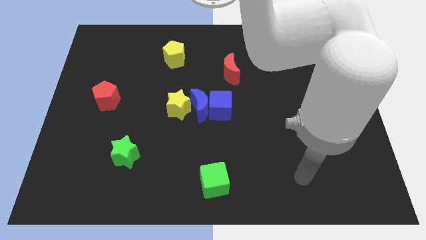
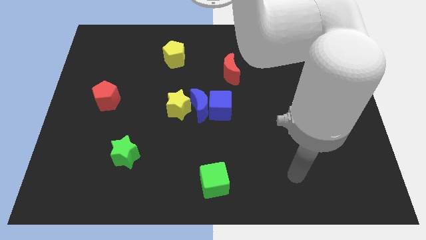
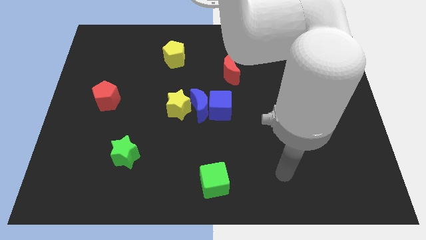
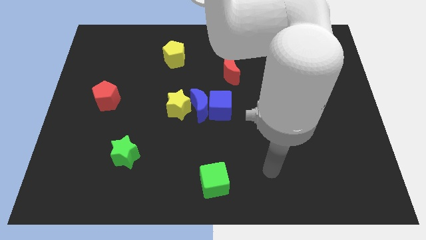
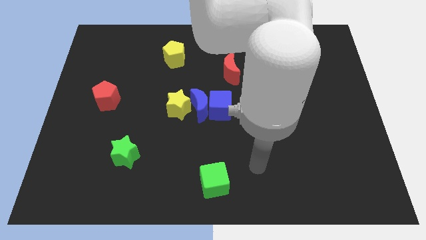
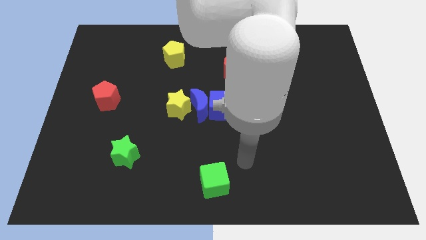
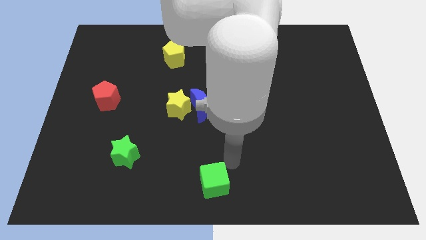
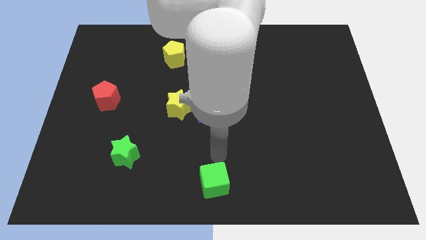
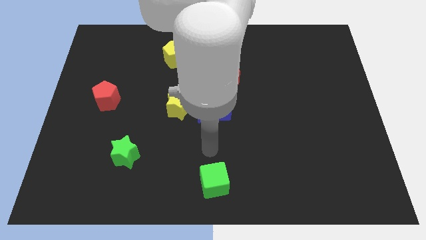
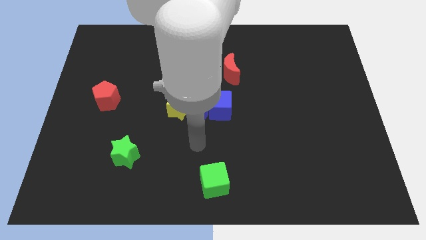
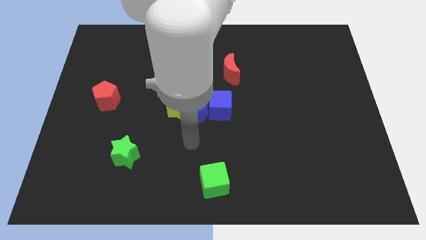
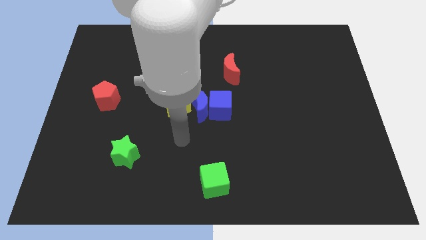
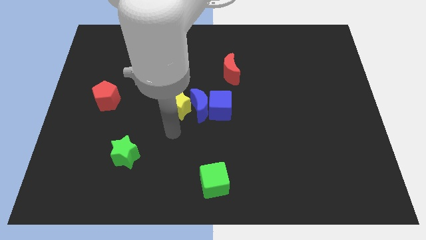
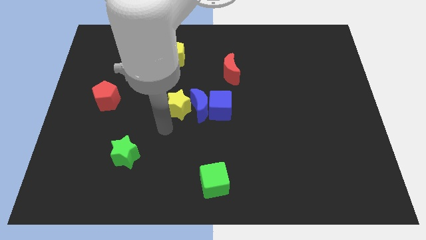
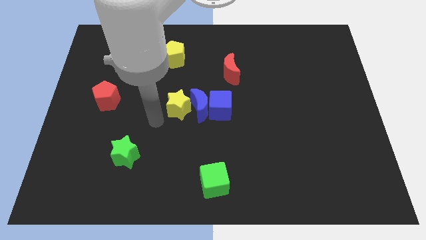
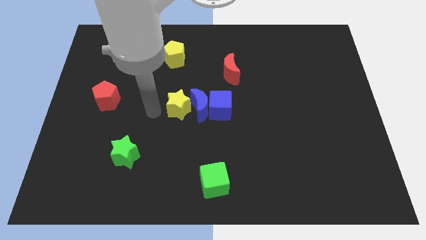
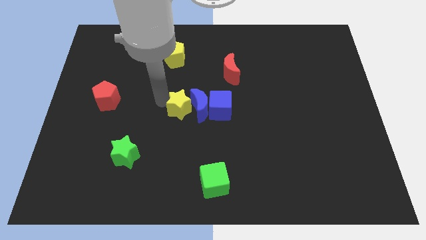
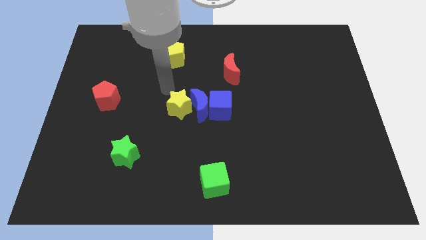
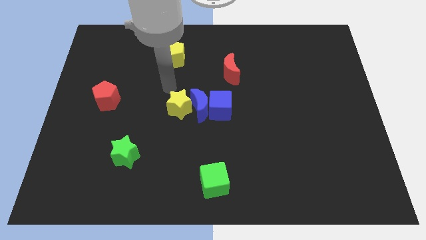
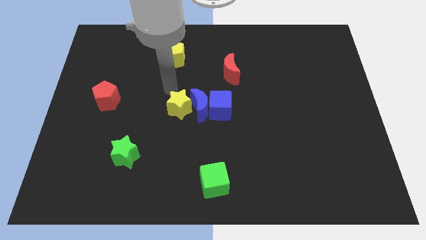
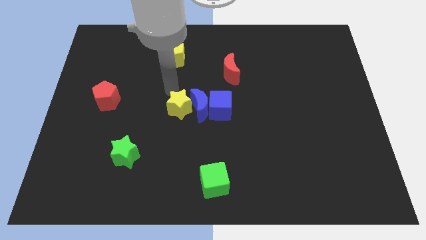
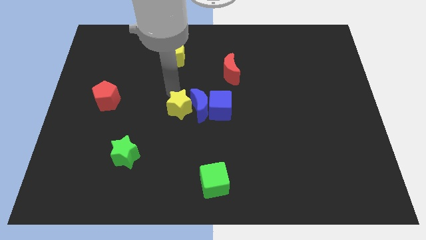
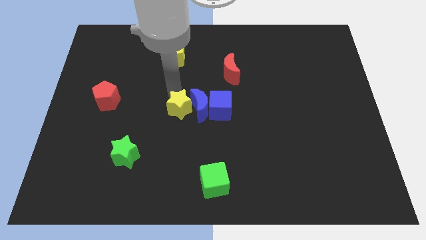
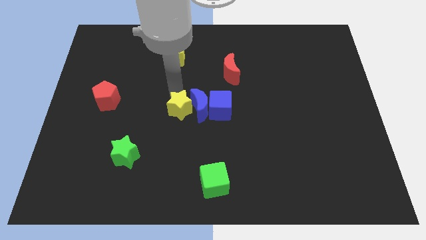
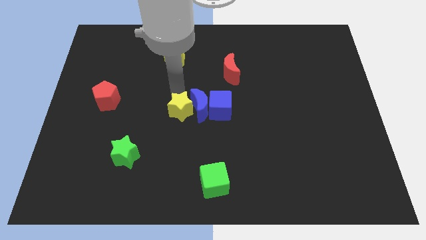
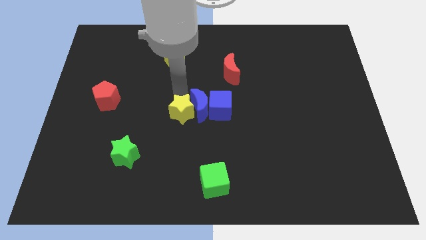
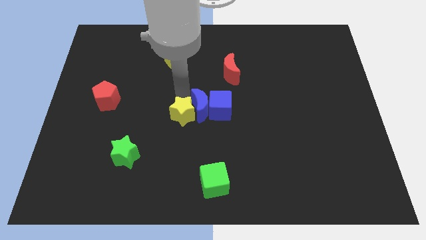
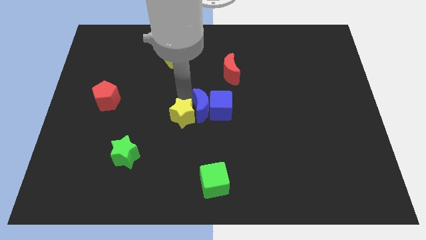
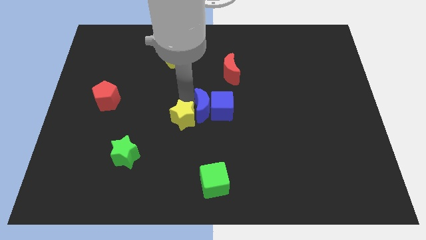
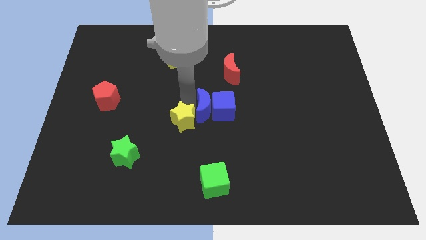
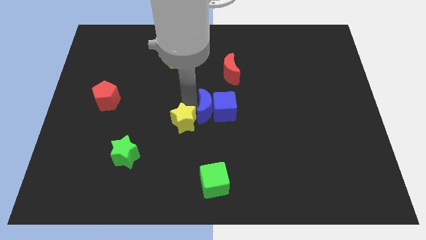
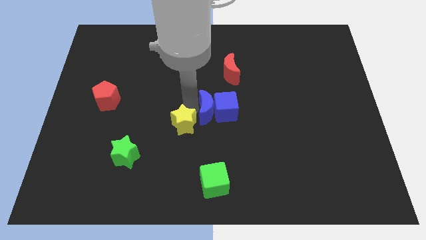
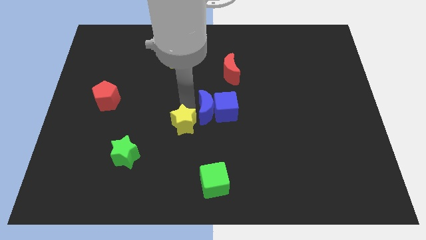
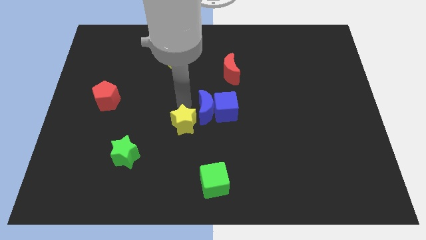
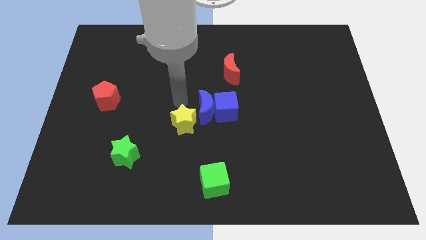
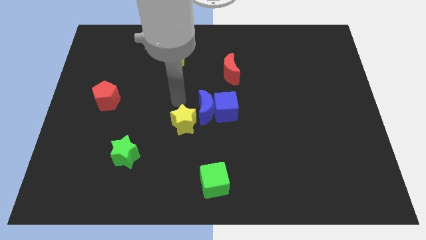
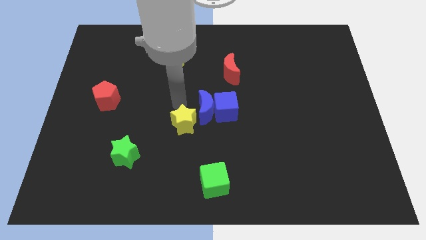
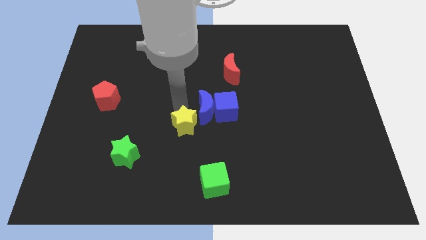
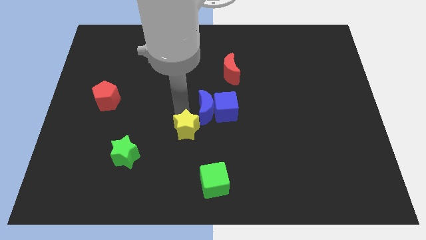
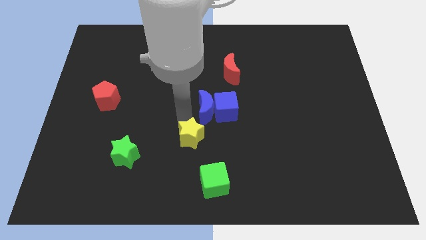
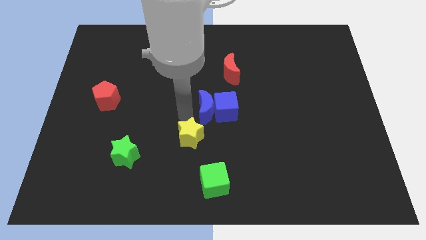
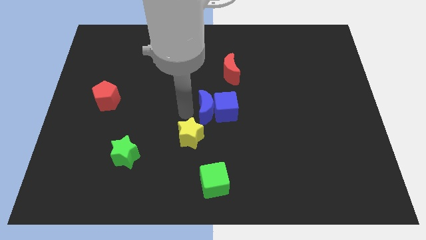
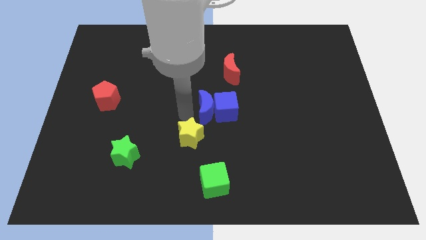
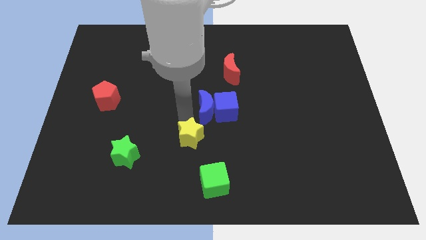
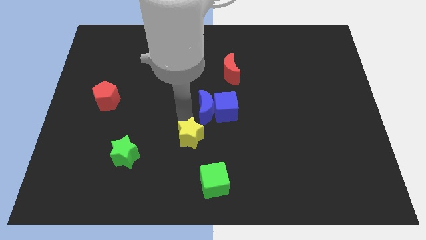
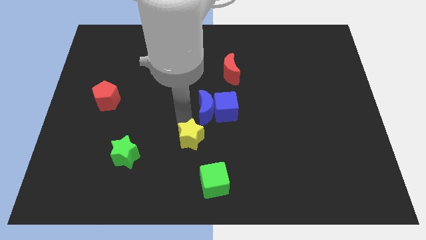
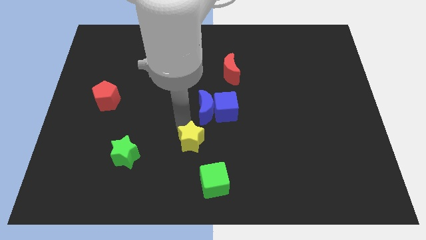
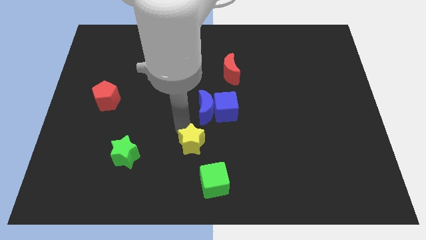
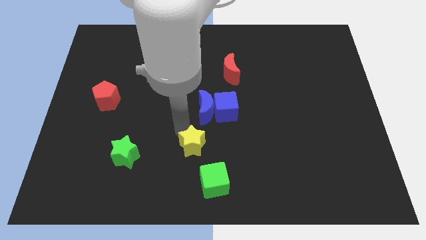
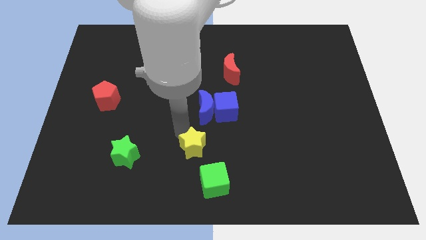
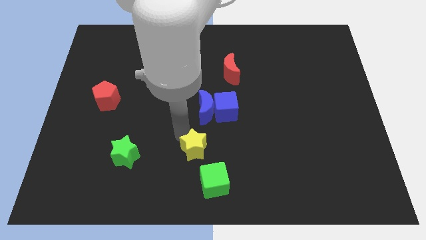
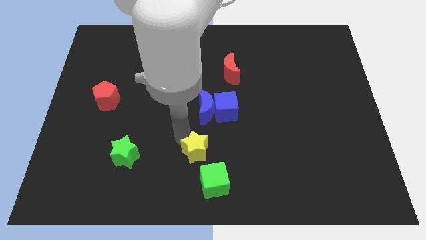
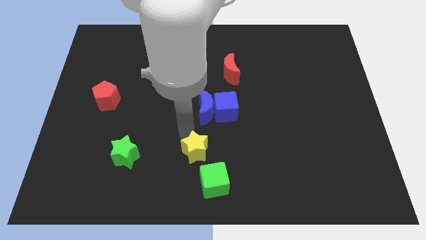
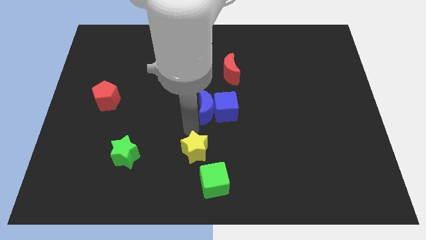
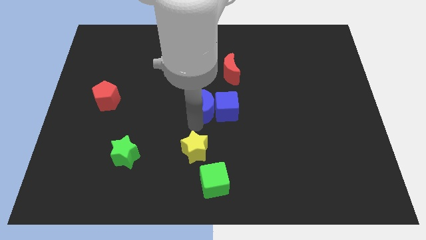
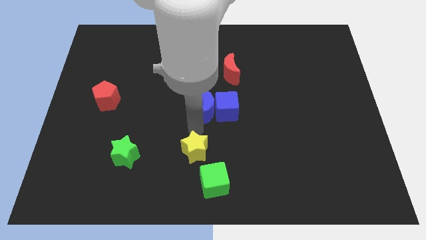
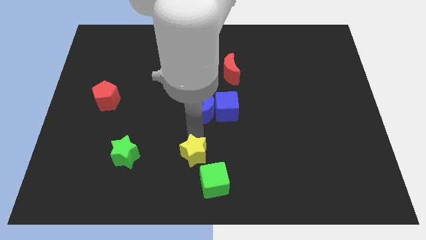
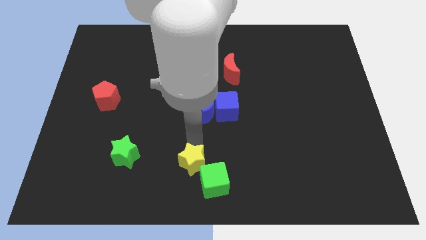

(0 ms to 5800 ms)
move the yellow star to the bottom side

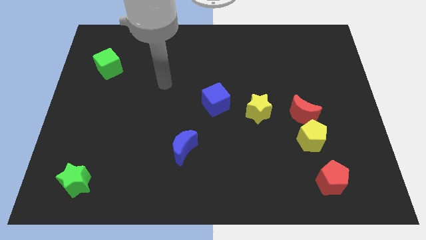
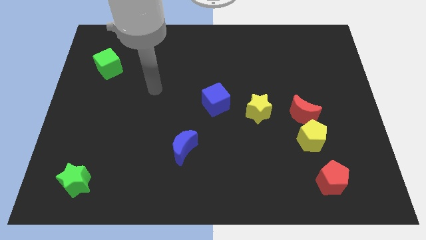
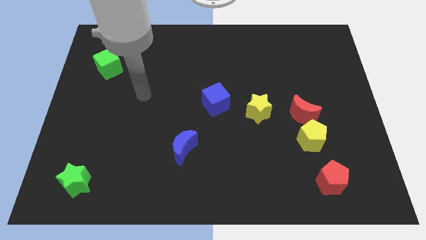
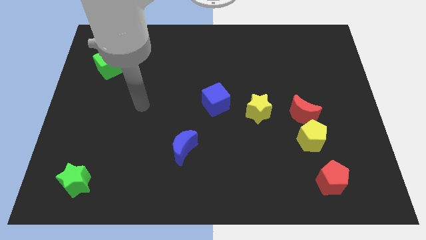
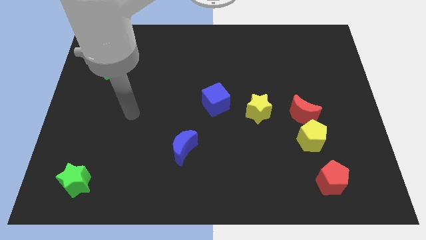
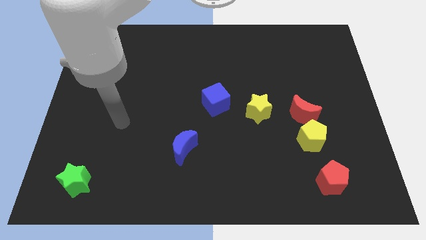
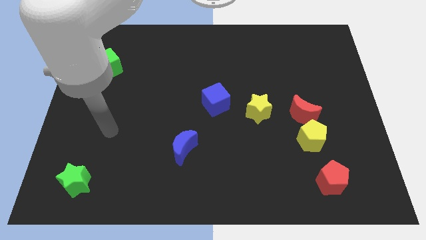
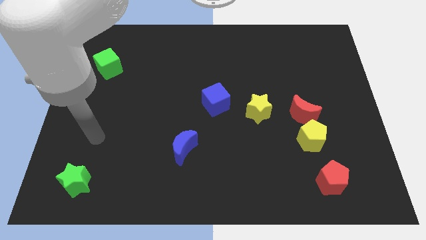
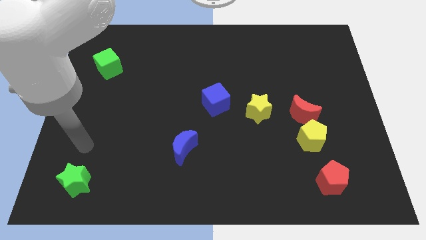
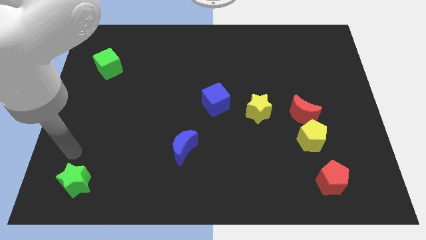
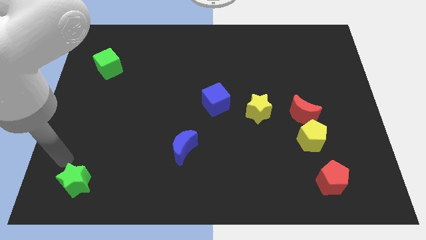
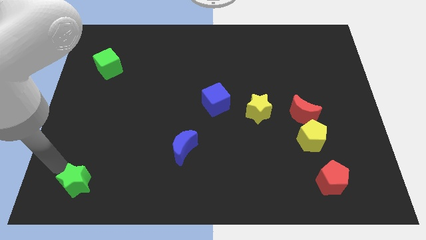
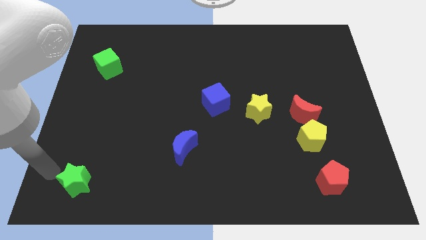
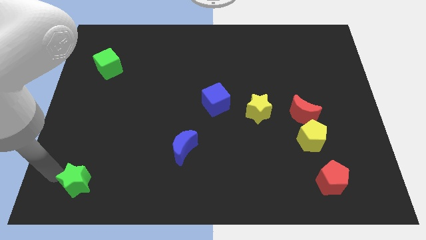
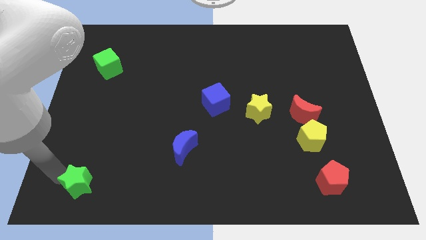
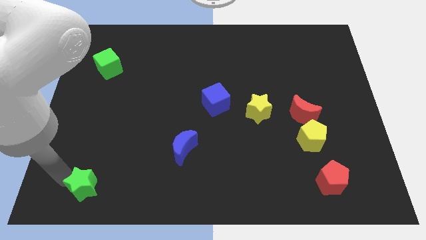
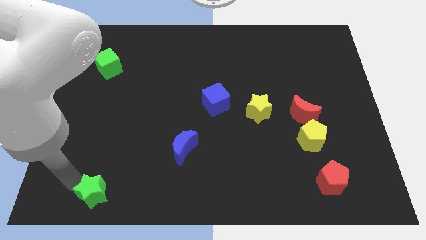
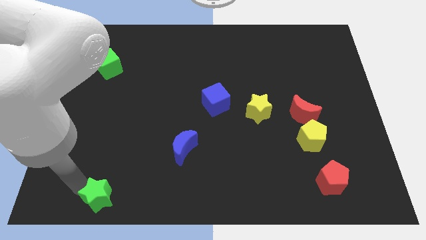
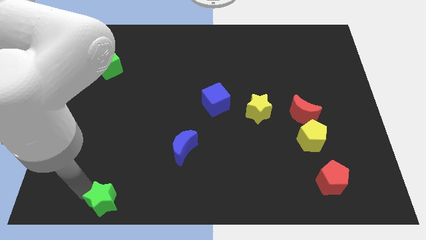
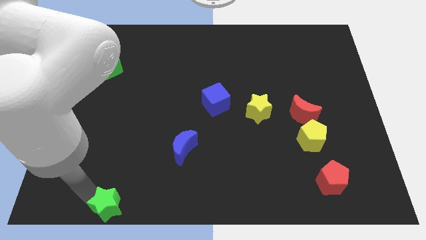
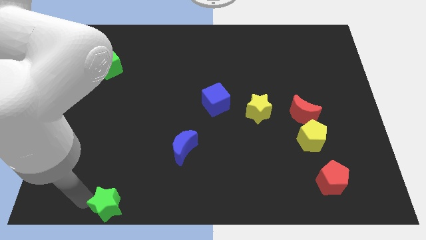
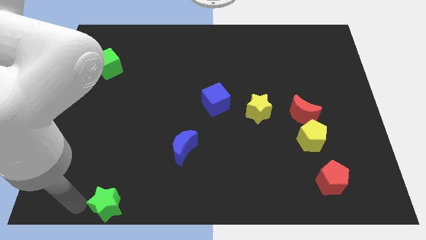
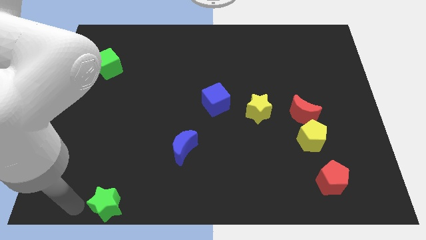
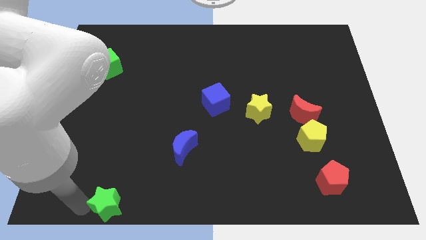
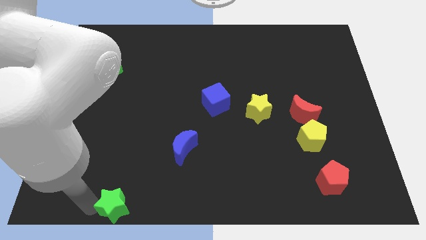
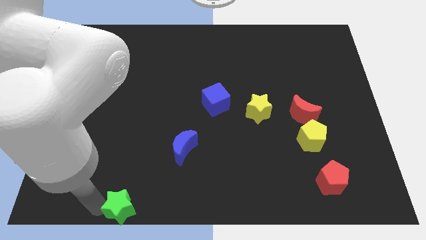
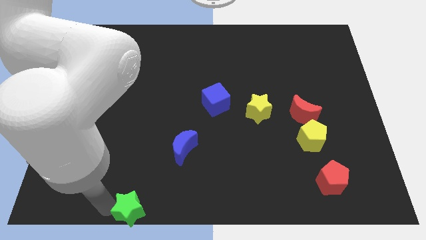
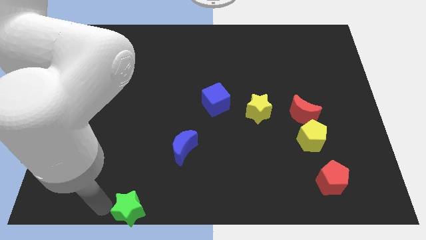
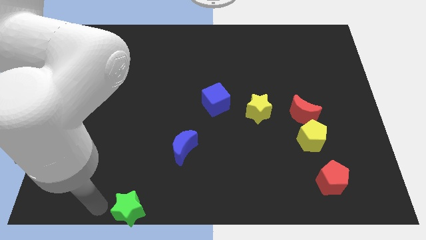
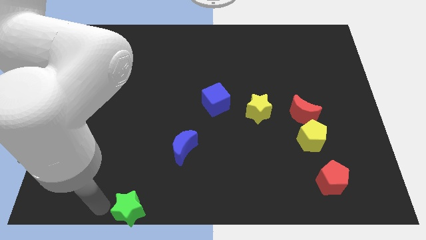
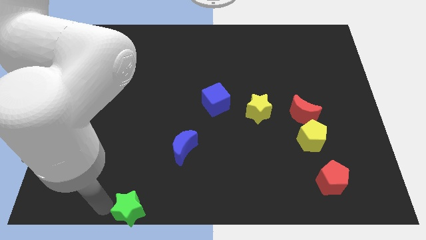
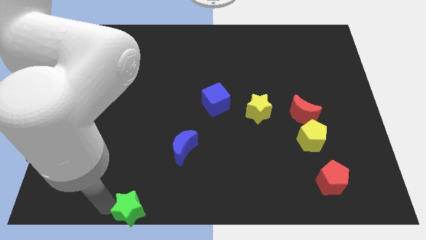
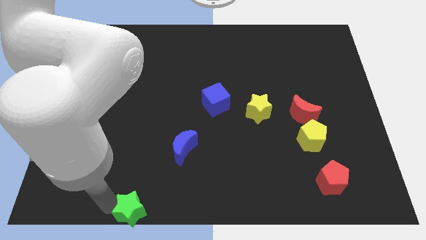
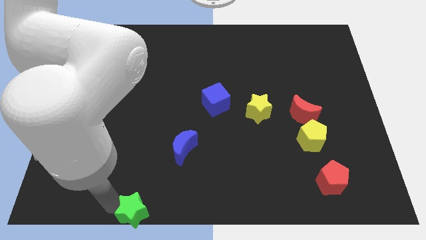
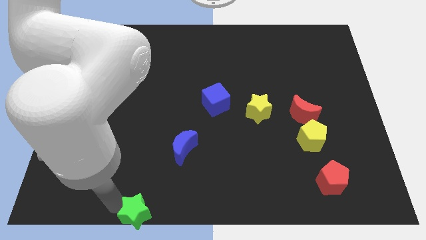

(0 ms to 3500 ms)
move the green star to the bottom
